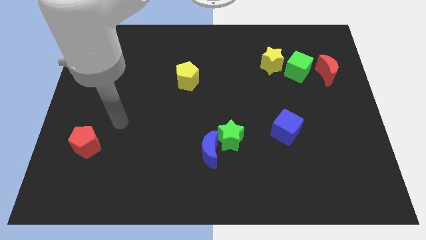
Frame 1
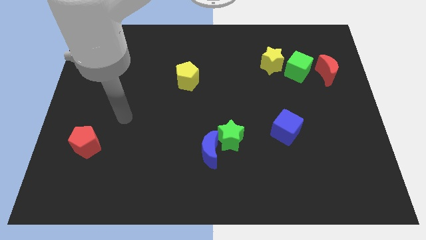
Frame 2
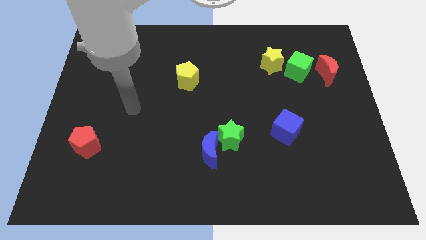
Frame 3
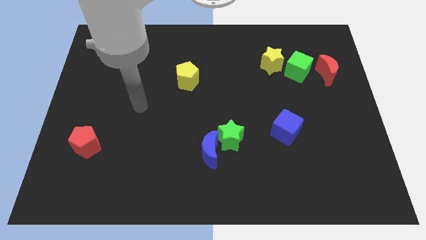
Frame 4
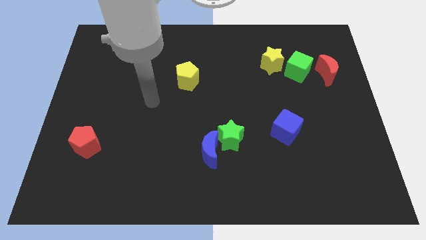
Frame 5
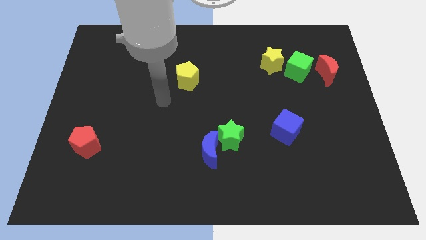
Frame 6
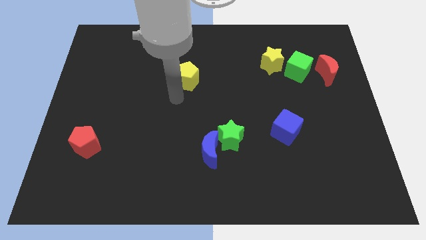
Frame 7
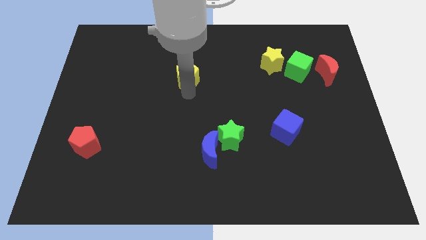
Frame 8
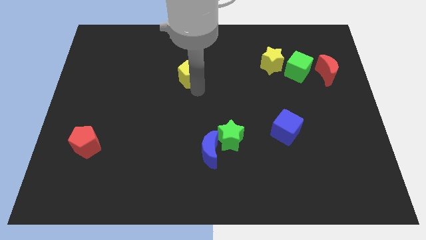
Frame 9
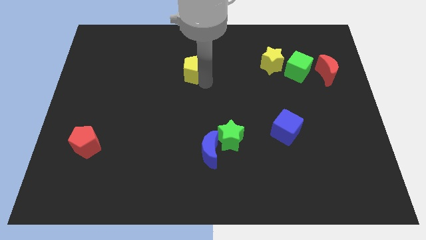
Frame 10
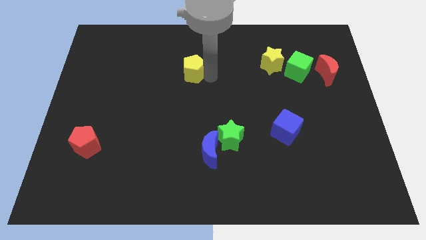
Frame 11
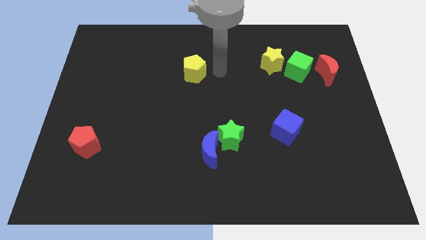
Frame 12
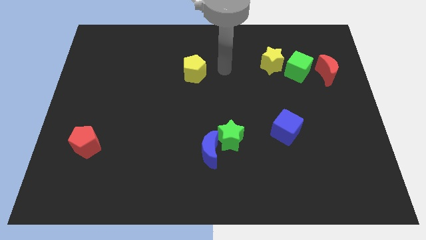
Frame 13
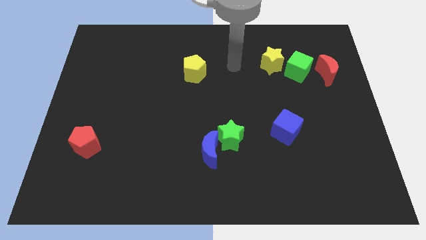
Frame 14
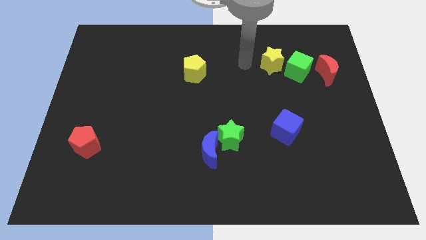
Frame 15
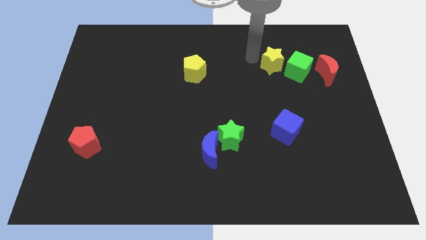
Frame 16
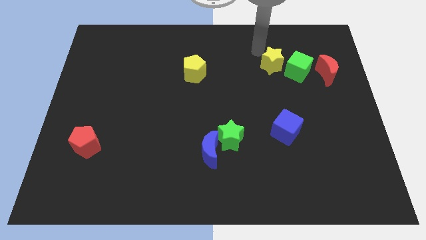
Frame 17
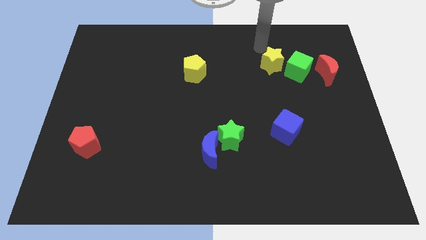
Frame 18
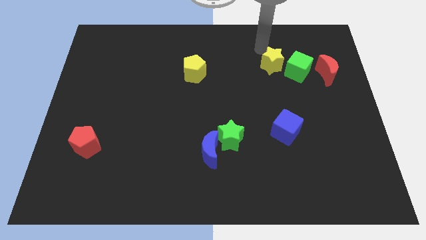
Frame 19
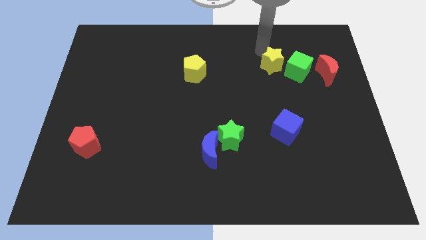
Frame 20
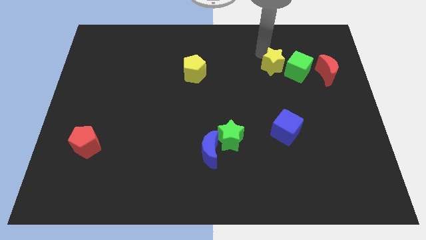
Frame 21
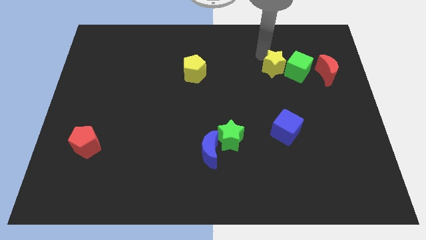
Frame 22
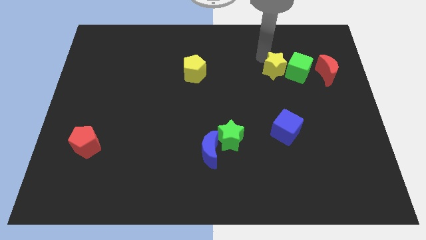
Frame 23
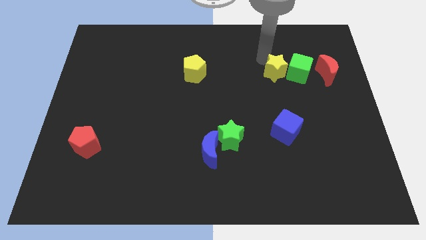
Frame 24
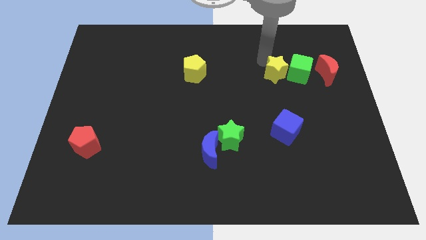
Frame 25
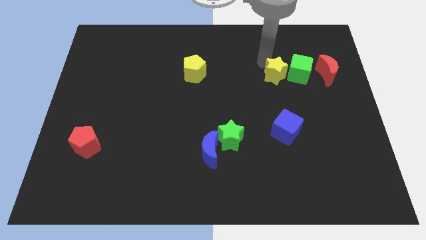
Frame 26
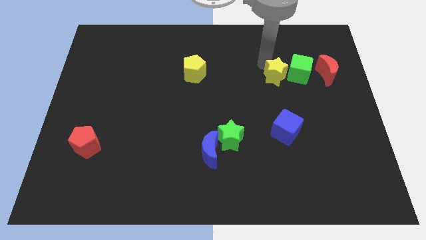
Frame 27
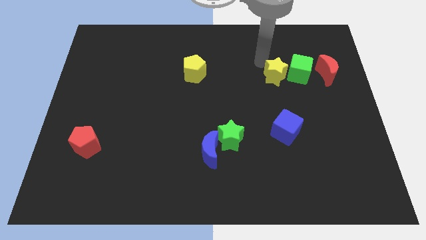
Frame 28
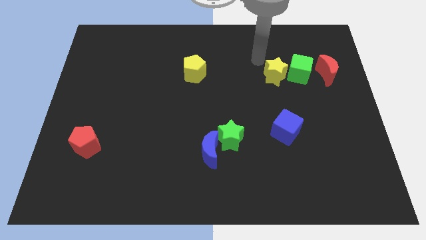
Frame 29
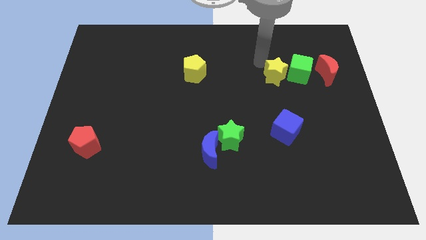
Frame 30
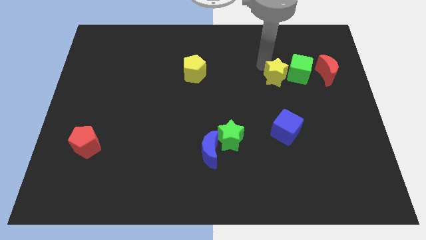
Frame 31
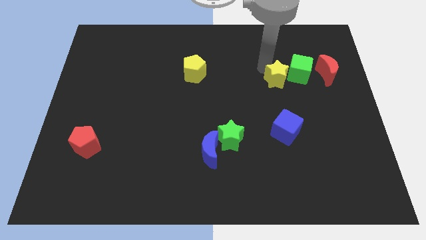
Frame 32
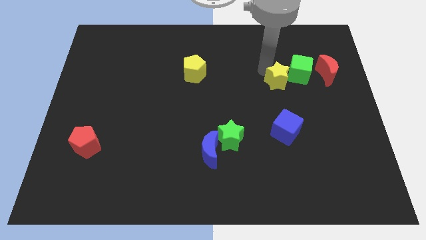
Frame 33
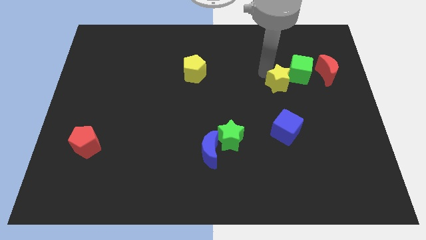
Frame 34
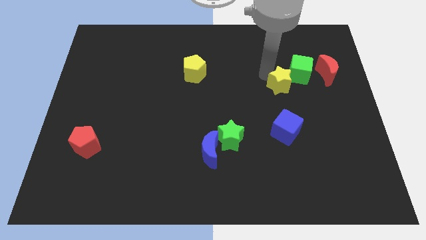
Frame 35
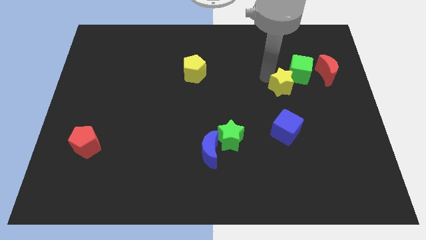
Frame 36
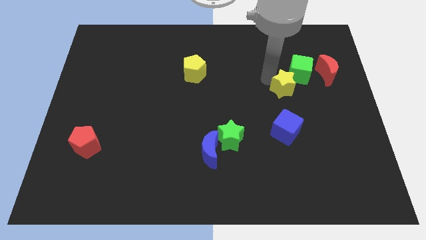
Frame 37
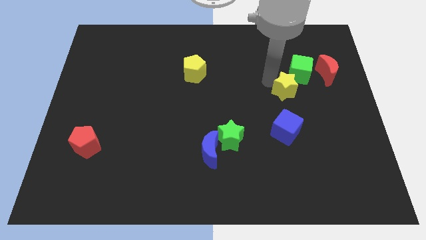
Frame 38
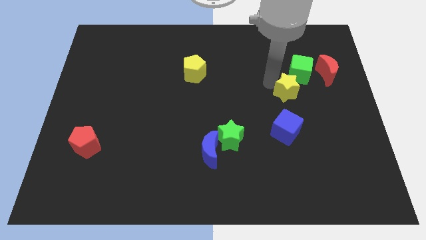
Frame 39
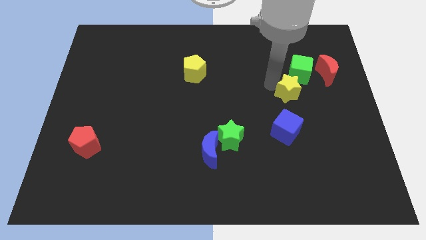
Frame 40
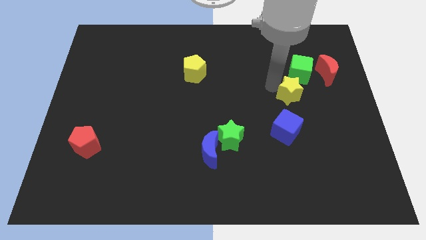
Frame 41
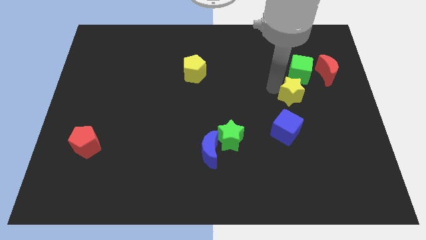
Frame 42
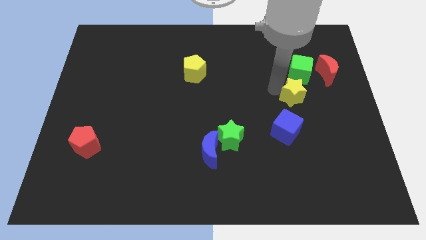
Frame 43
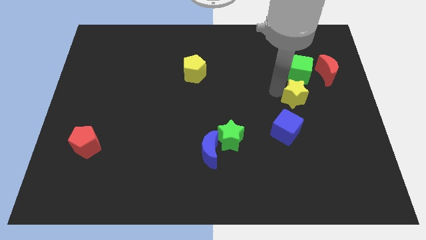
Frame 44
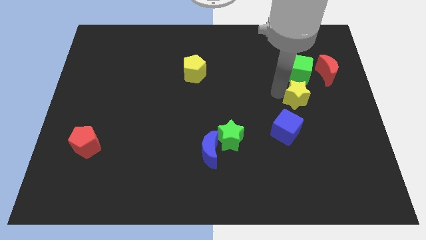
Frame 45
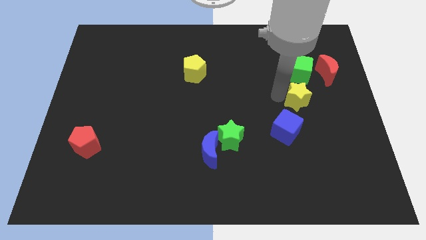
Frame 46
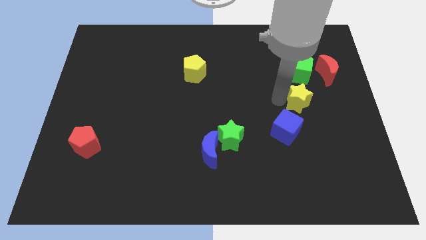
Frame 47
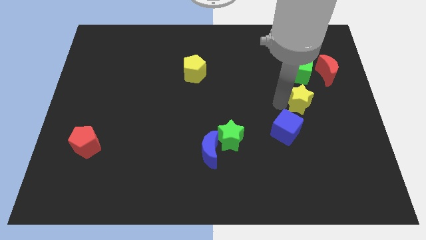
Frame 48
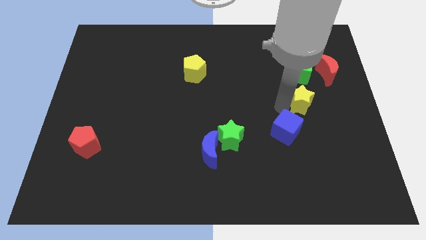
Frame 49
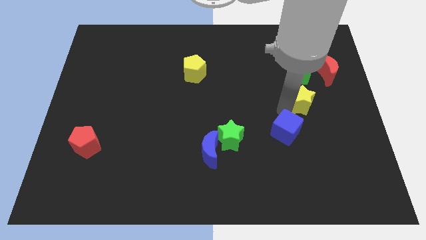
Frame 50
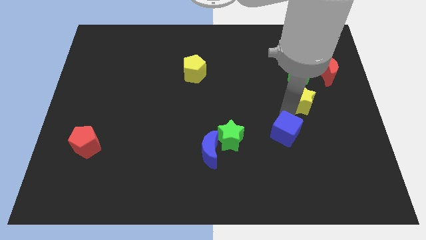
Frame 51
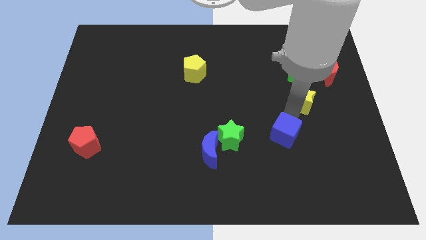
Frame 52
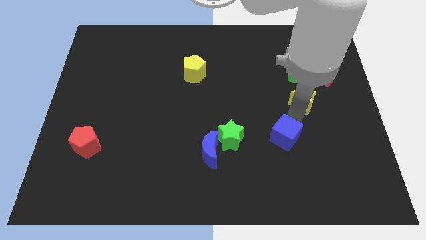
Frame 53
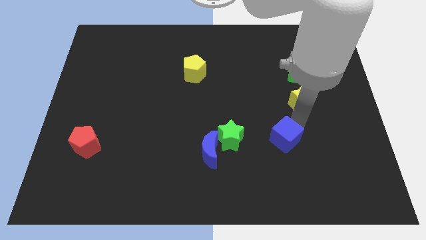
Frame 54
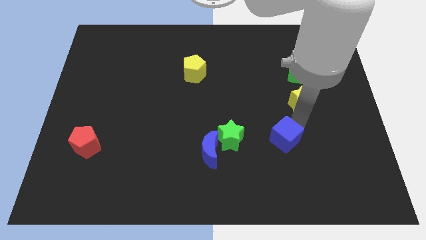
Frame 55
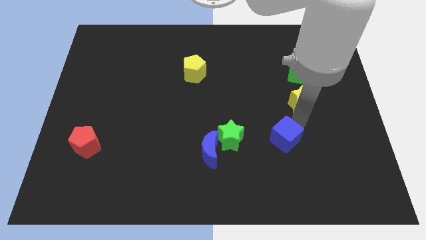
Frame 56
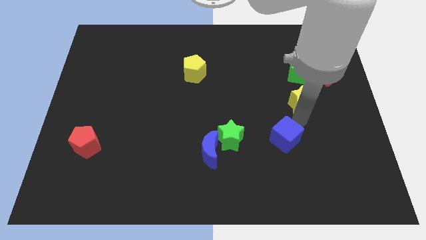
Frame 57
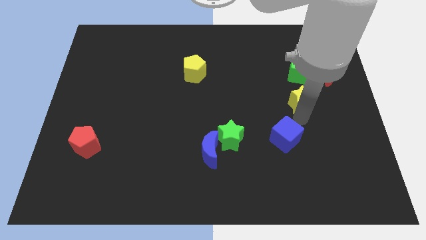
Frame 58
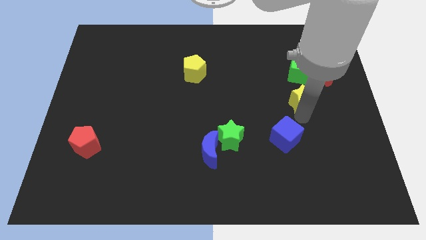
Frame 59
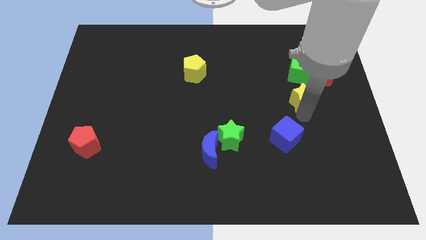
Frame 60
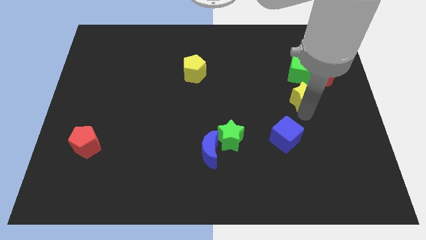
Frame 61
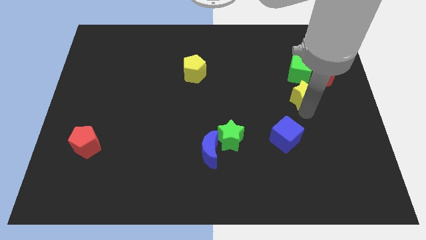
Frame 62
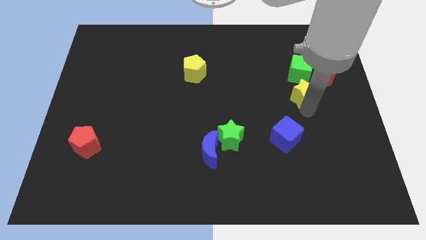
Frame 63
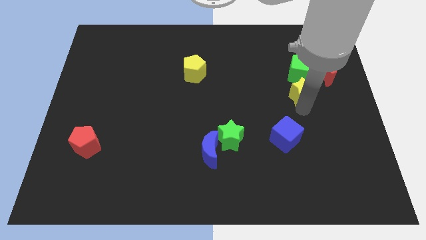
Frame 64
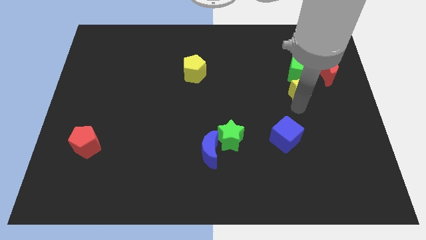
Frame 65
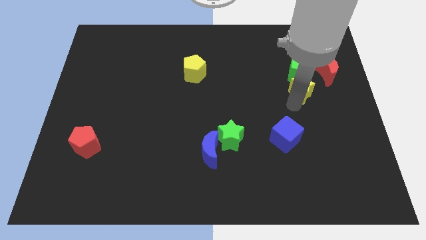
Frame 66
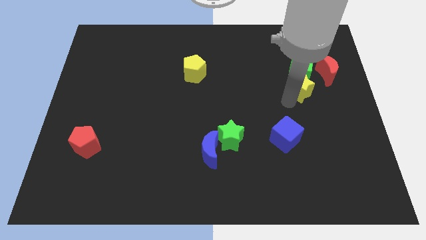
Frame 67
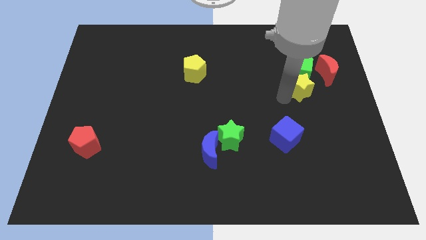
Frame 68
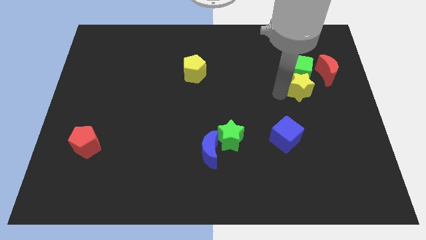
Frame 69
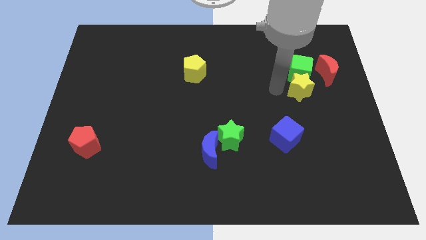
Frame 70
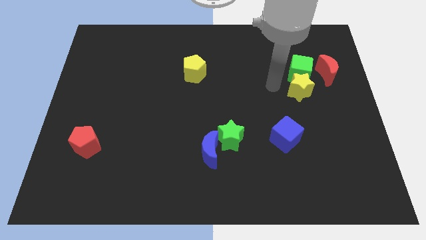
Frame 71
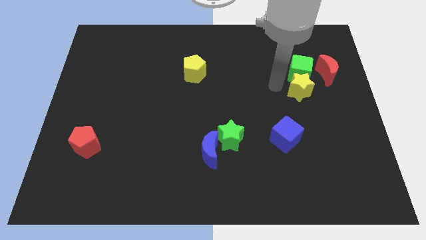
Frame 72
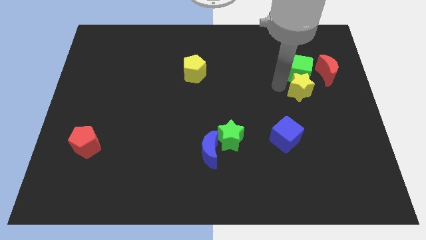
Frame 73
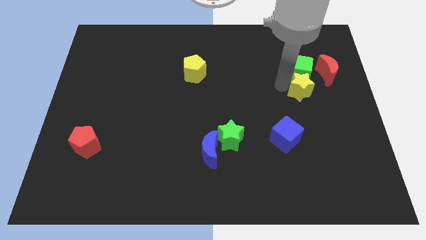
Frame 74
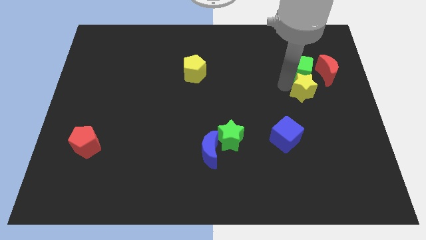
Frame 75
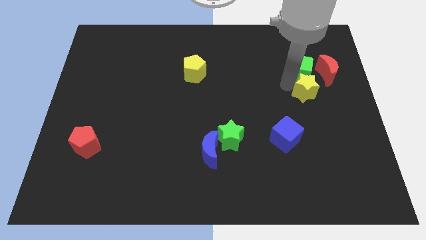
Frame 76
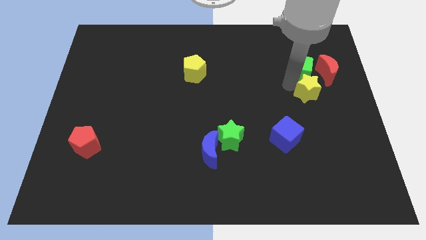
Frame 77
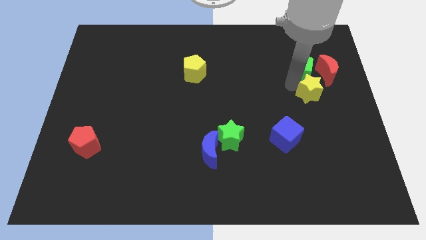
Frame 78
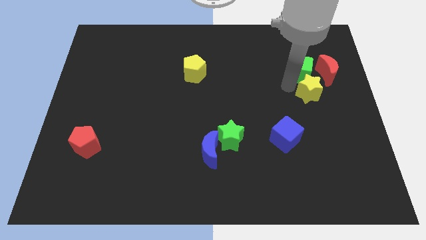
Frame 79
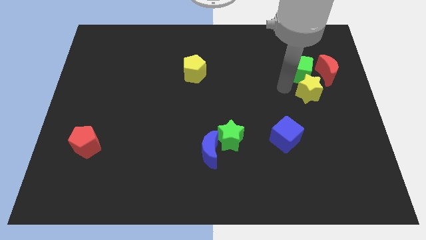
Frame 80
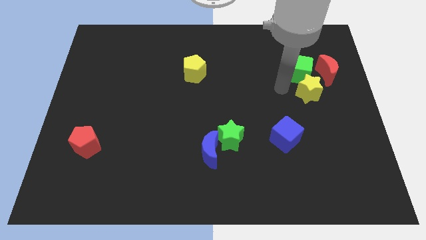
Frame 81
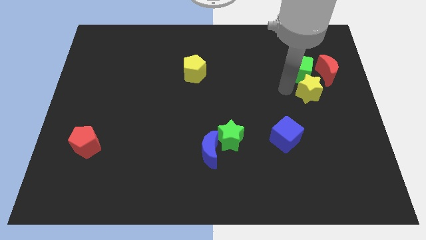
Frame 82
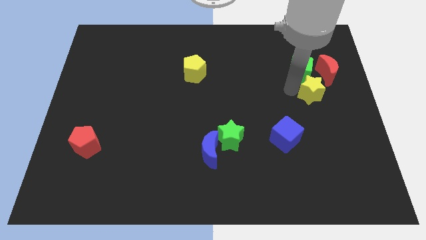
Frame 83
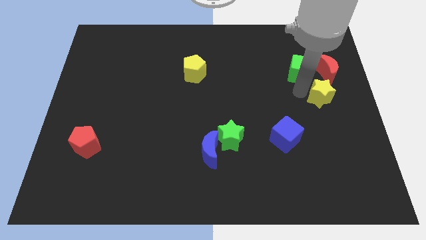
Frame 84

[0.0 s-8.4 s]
slide the yellow star to the center right
